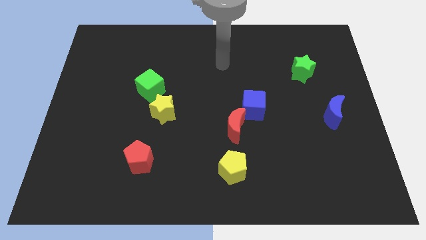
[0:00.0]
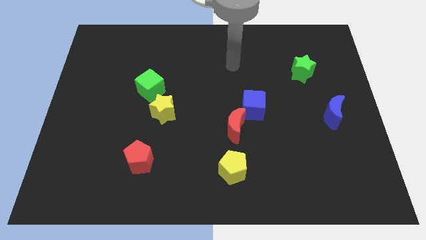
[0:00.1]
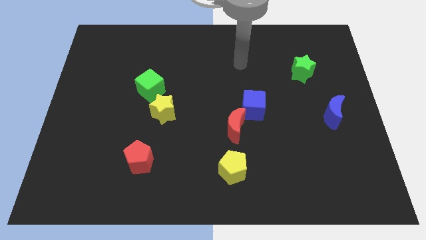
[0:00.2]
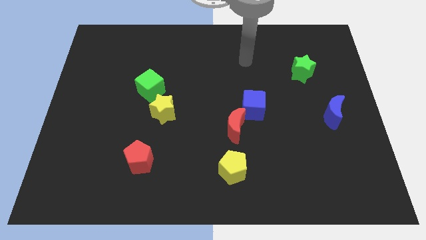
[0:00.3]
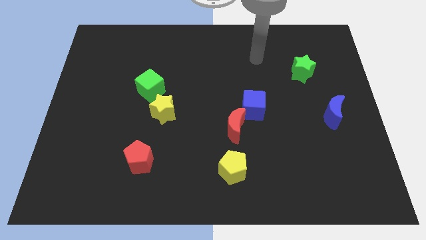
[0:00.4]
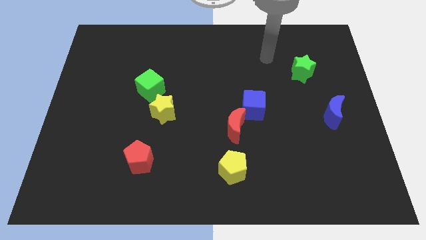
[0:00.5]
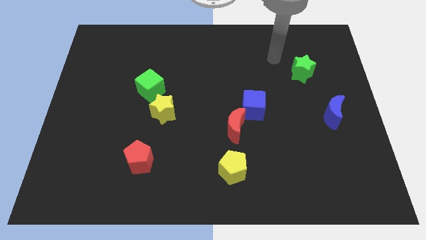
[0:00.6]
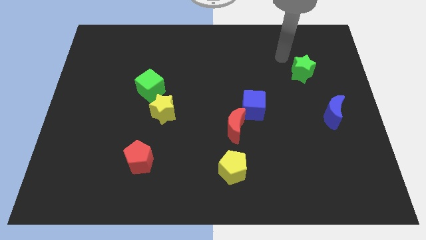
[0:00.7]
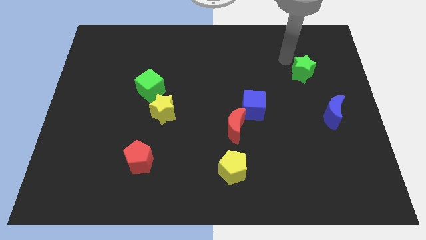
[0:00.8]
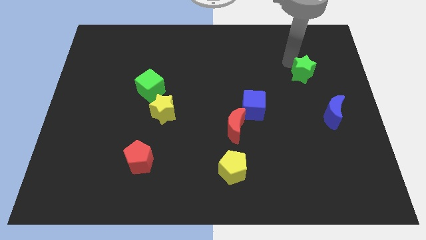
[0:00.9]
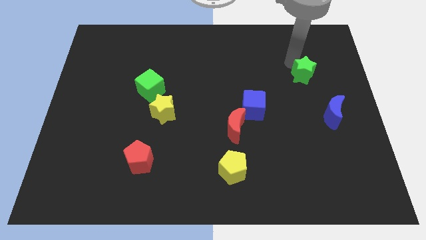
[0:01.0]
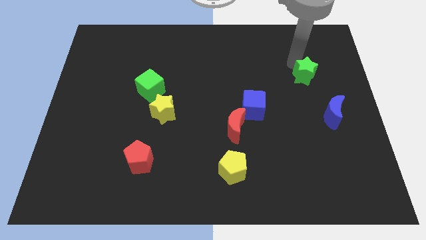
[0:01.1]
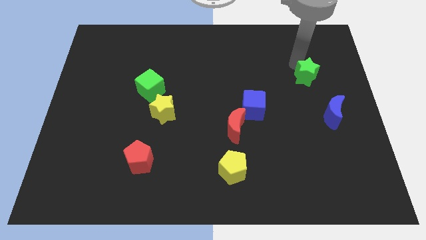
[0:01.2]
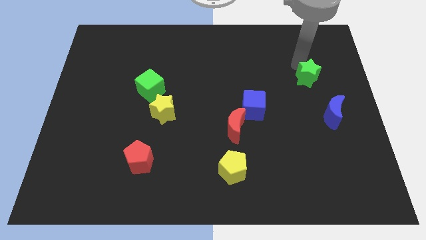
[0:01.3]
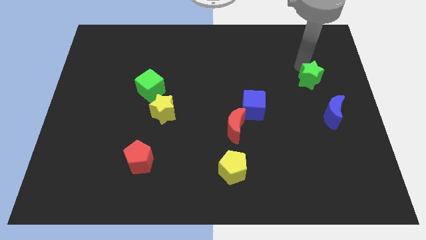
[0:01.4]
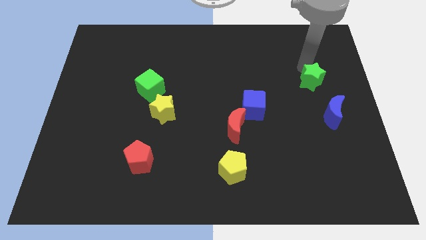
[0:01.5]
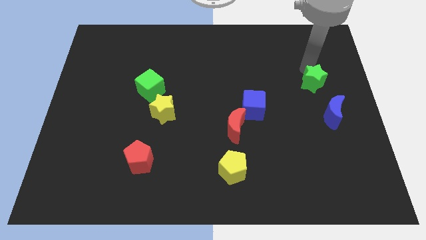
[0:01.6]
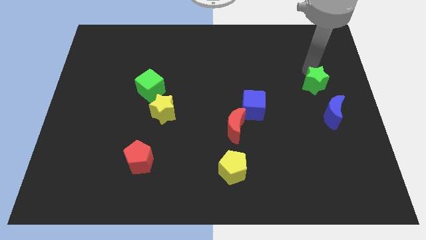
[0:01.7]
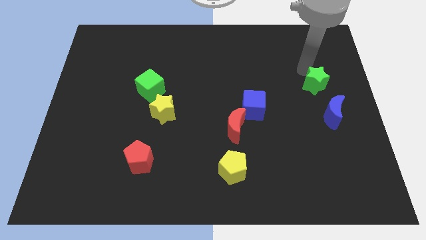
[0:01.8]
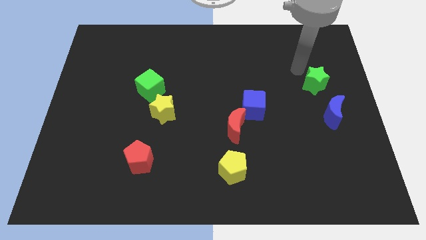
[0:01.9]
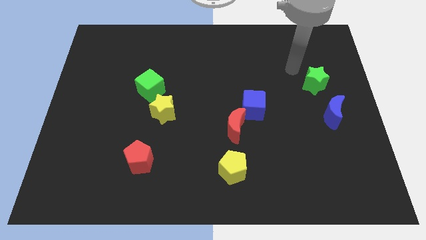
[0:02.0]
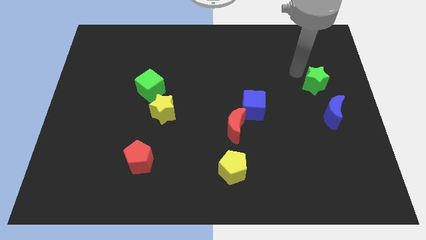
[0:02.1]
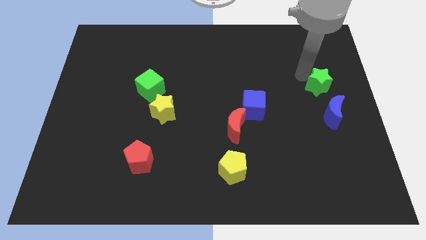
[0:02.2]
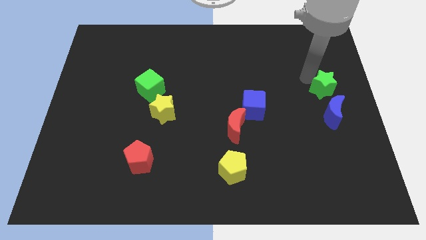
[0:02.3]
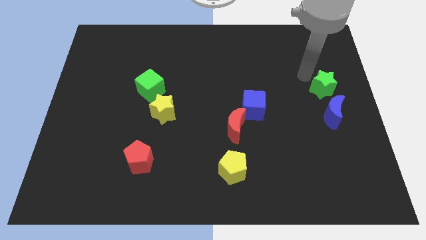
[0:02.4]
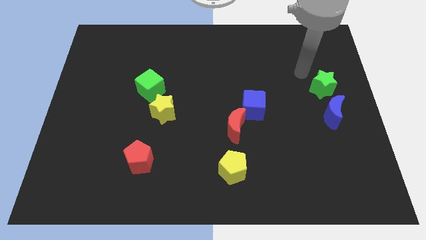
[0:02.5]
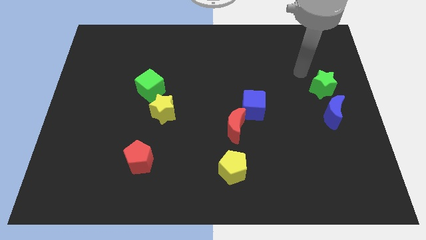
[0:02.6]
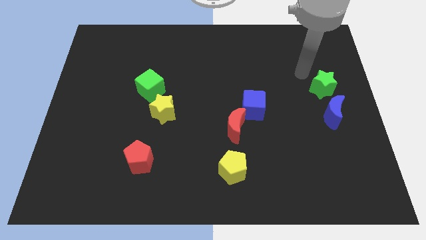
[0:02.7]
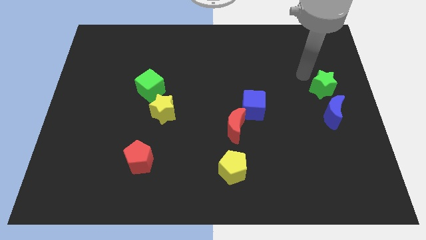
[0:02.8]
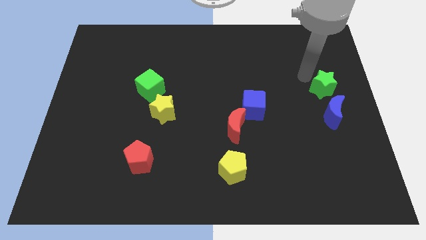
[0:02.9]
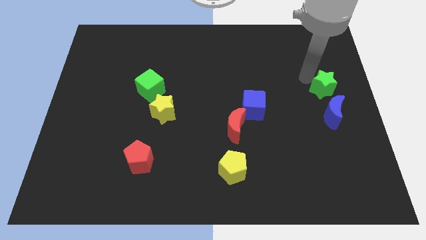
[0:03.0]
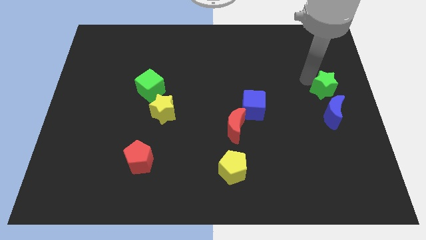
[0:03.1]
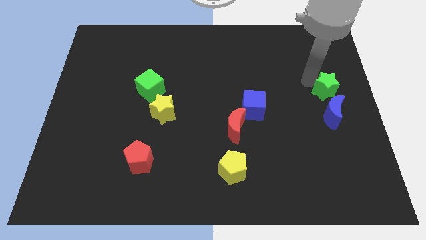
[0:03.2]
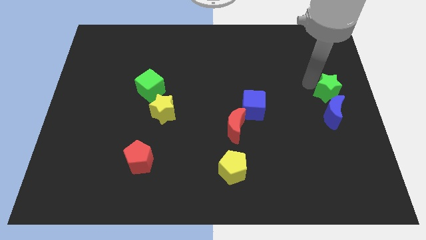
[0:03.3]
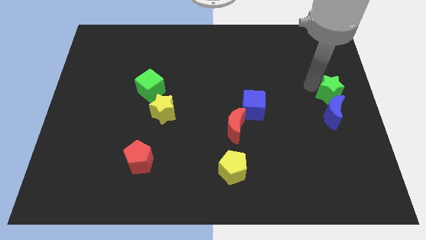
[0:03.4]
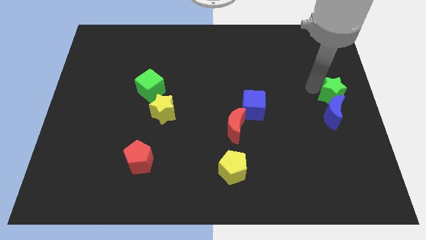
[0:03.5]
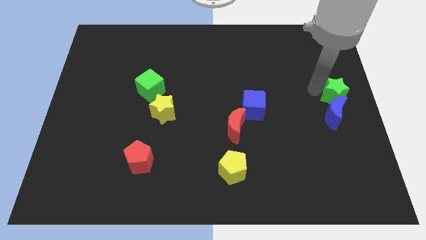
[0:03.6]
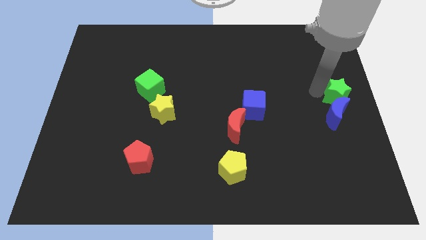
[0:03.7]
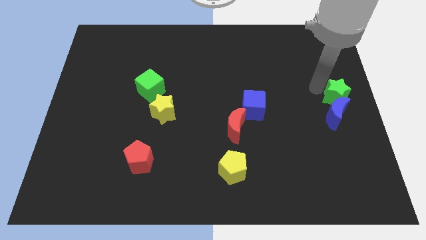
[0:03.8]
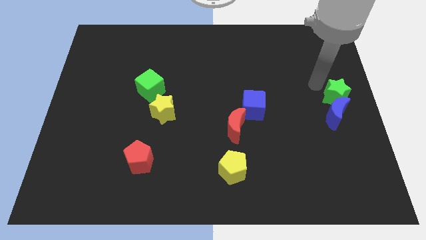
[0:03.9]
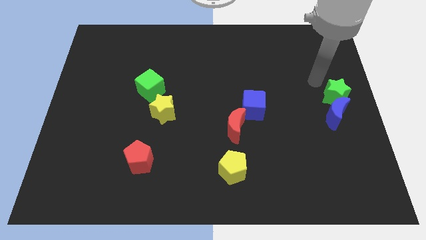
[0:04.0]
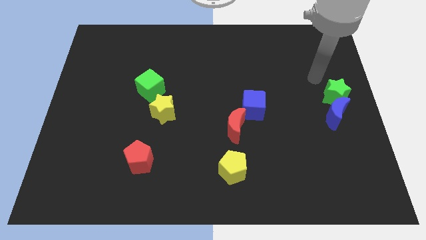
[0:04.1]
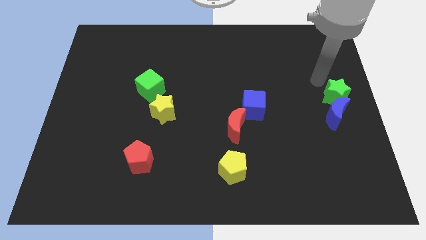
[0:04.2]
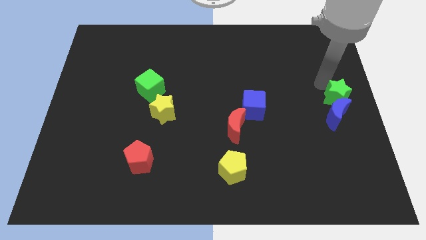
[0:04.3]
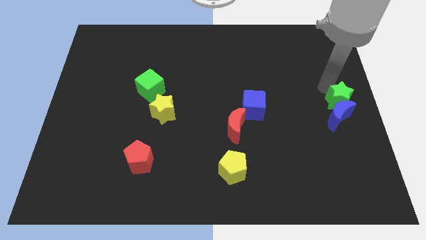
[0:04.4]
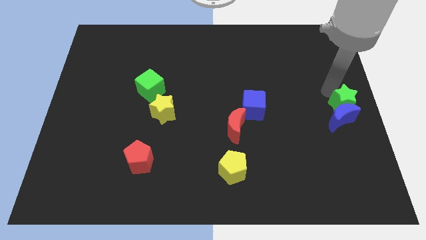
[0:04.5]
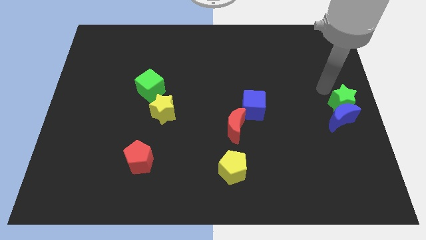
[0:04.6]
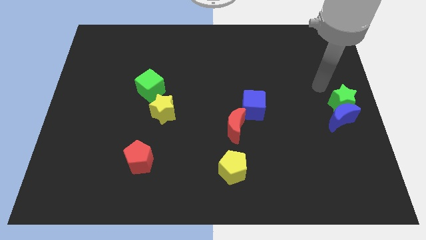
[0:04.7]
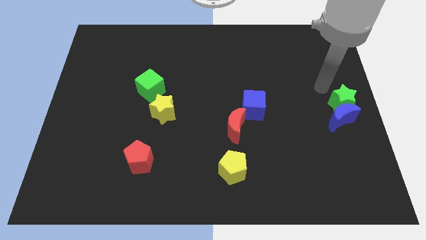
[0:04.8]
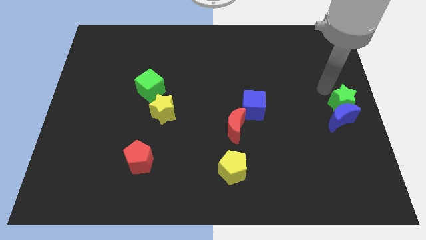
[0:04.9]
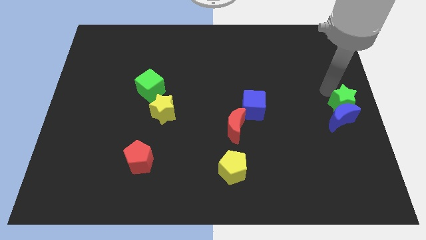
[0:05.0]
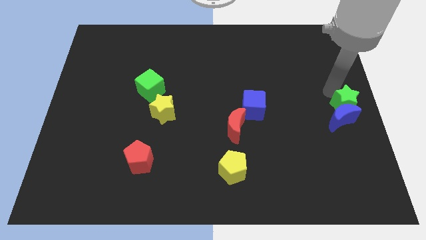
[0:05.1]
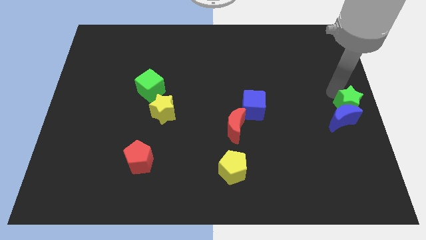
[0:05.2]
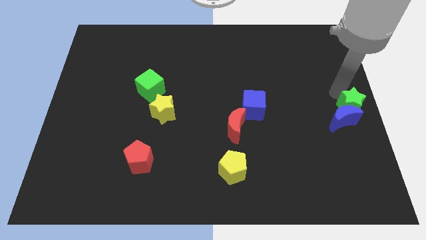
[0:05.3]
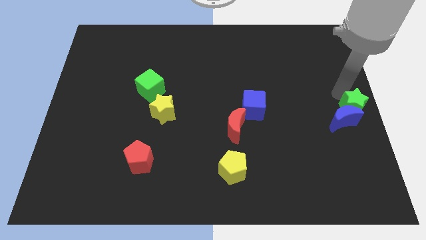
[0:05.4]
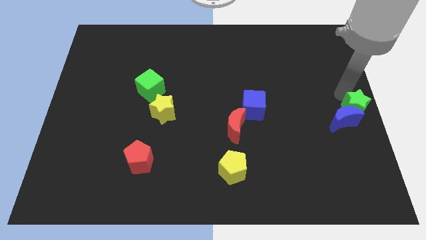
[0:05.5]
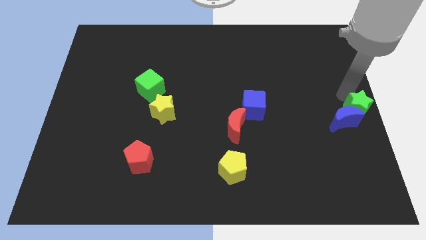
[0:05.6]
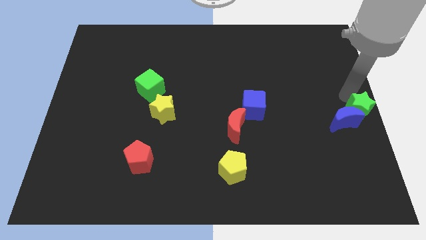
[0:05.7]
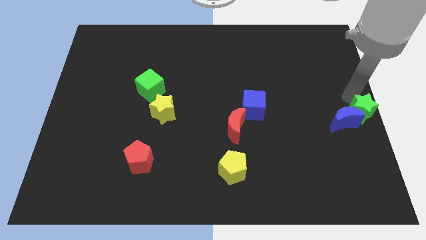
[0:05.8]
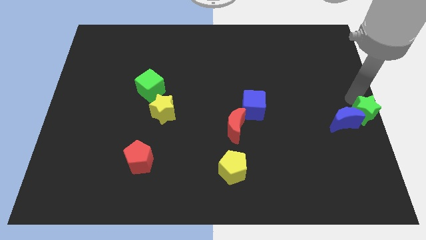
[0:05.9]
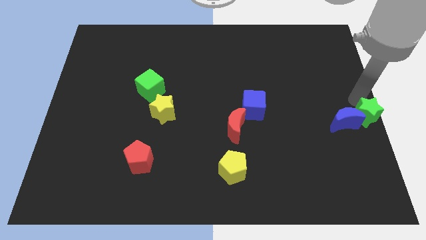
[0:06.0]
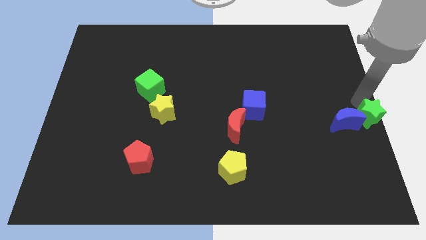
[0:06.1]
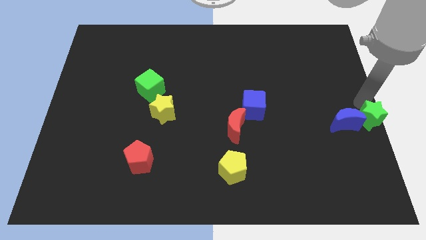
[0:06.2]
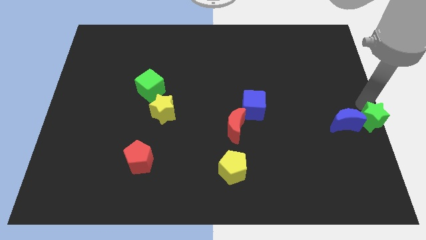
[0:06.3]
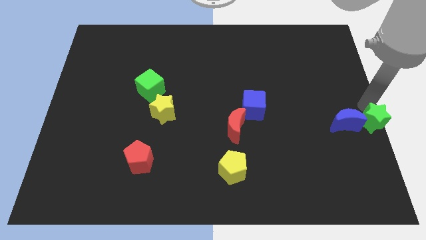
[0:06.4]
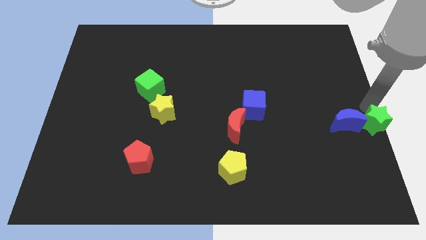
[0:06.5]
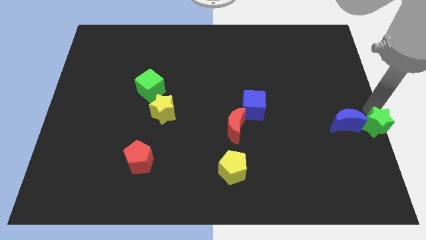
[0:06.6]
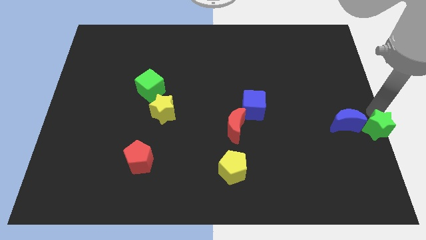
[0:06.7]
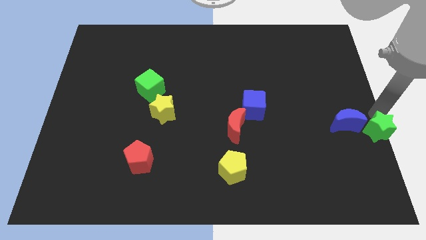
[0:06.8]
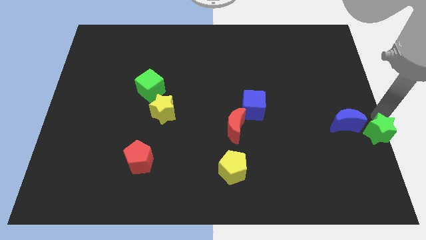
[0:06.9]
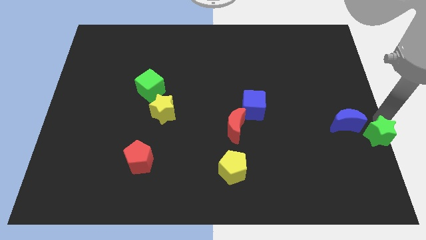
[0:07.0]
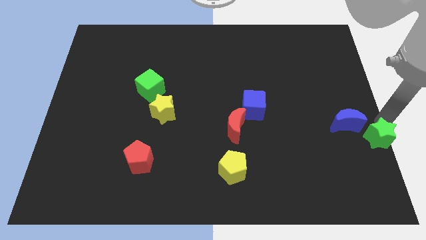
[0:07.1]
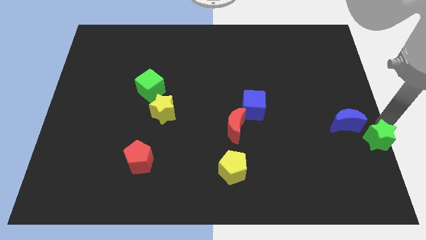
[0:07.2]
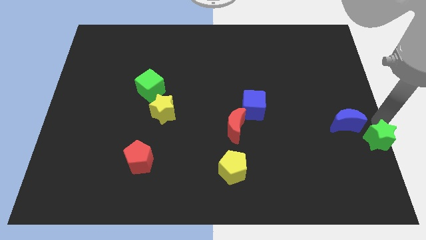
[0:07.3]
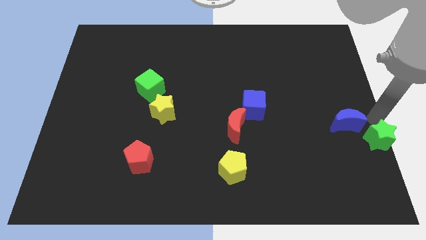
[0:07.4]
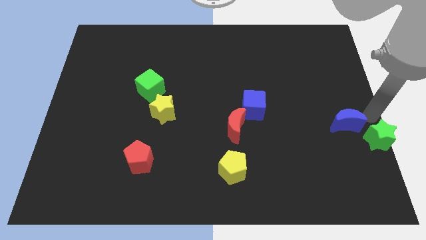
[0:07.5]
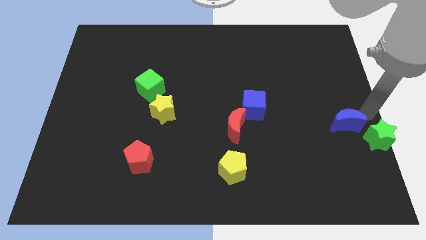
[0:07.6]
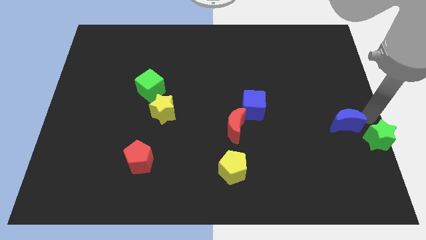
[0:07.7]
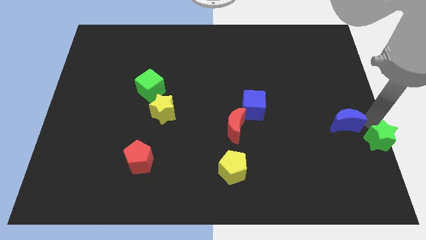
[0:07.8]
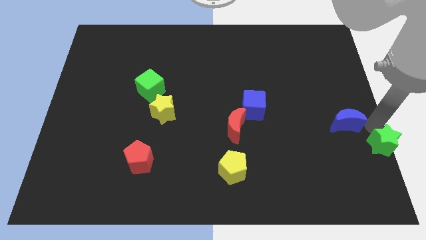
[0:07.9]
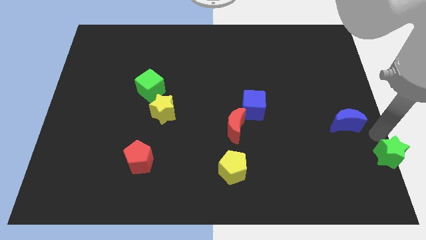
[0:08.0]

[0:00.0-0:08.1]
slide the green star to the bottom right of the board
